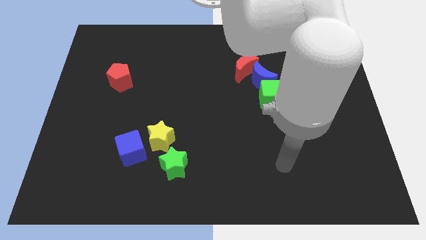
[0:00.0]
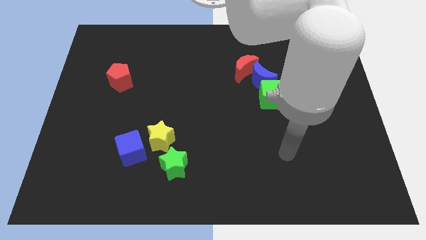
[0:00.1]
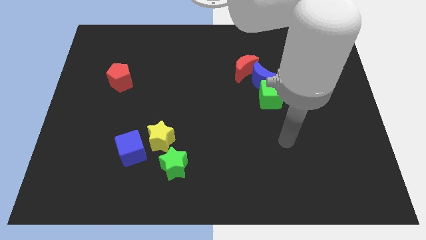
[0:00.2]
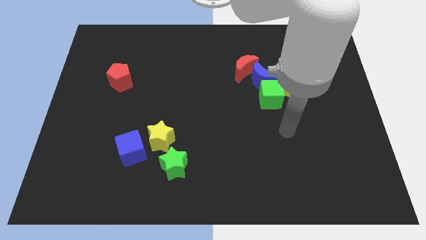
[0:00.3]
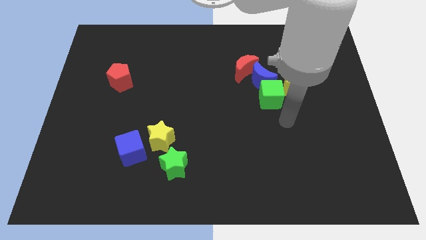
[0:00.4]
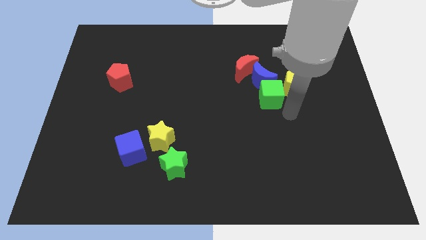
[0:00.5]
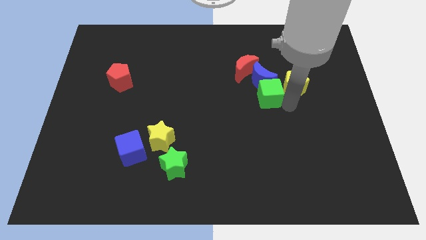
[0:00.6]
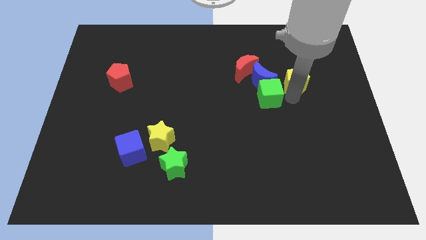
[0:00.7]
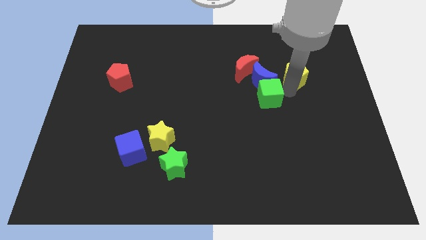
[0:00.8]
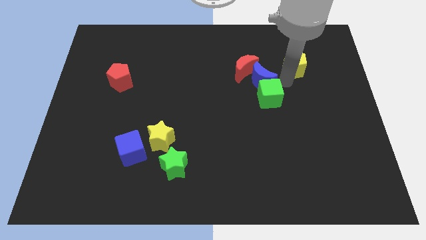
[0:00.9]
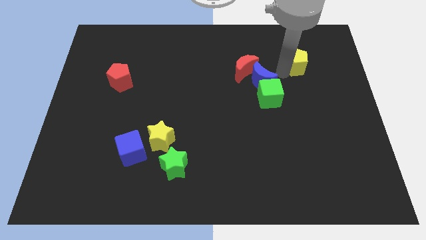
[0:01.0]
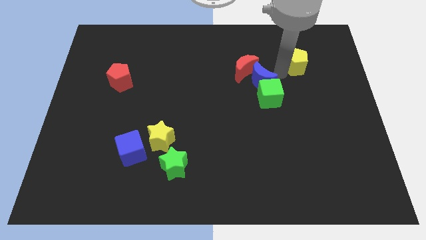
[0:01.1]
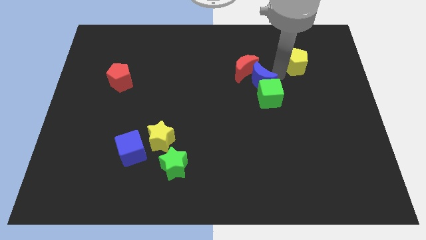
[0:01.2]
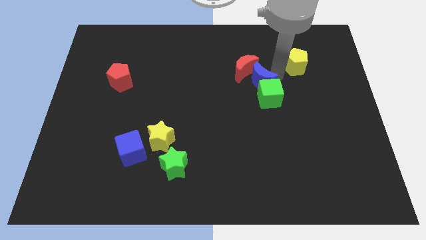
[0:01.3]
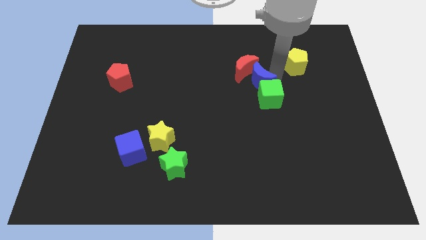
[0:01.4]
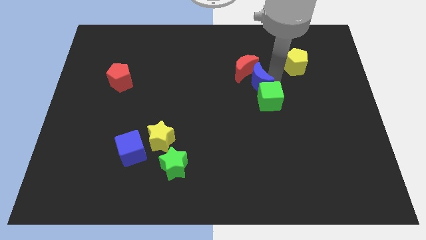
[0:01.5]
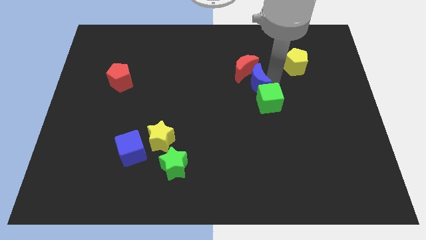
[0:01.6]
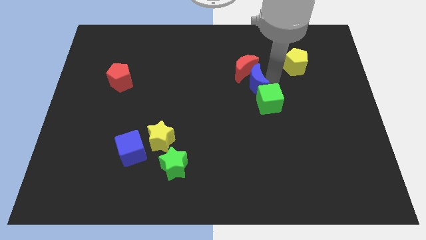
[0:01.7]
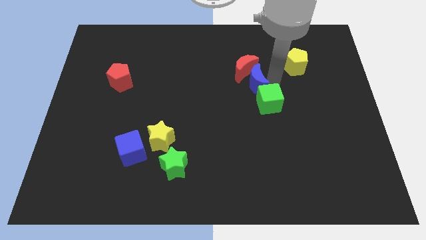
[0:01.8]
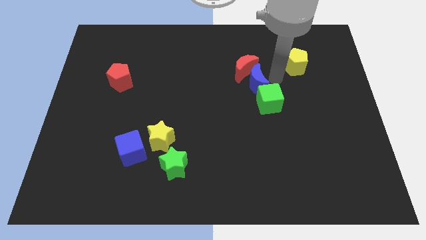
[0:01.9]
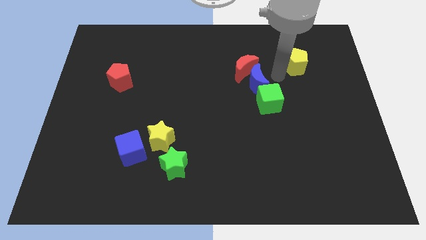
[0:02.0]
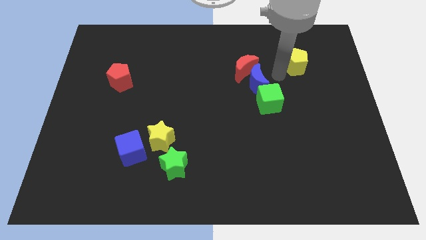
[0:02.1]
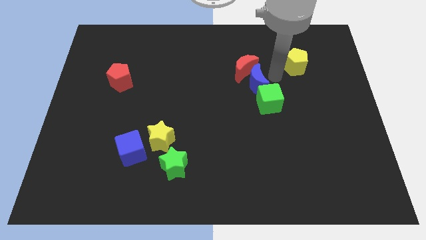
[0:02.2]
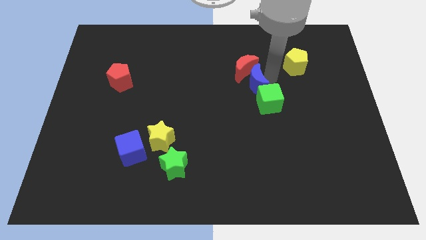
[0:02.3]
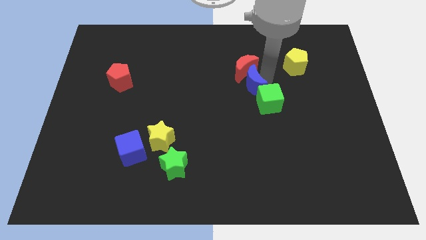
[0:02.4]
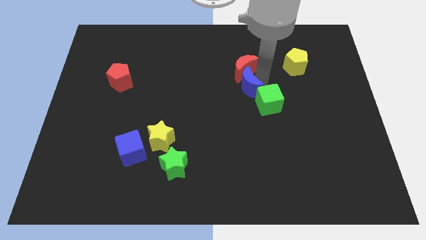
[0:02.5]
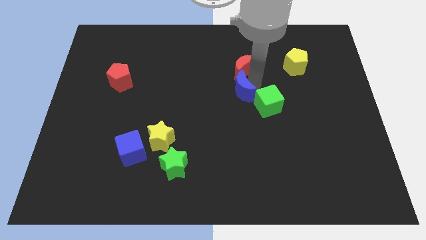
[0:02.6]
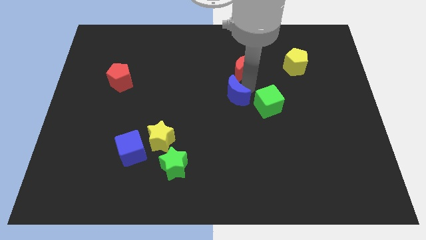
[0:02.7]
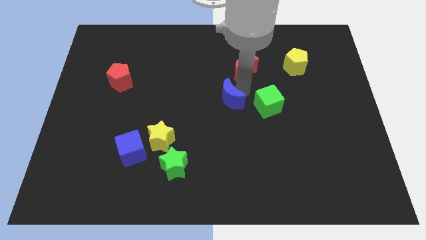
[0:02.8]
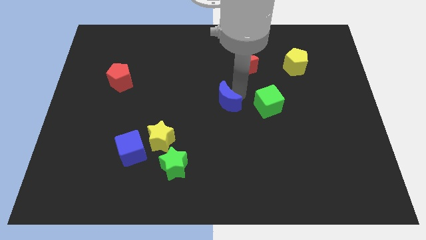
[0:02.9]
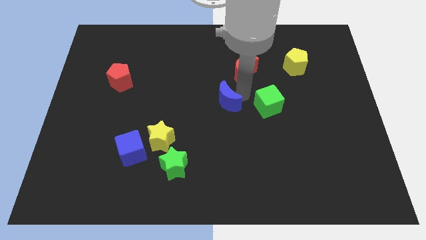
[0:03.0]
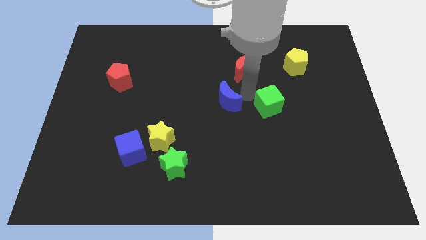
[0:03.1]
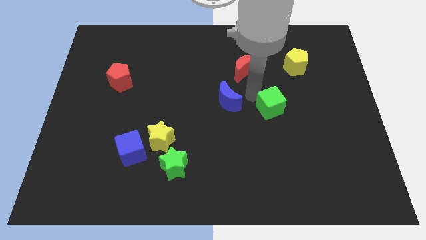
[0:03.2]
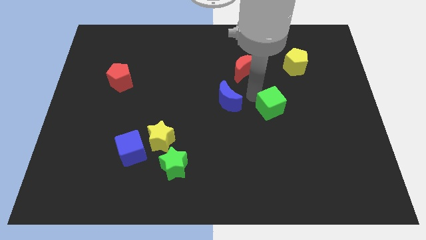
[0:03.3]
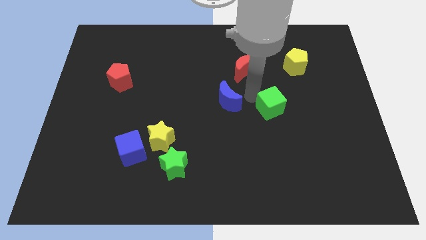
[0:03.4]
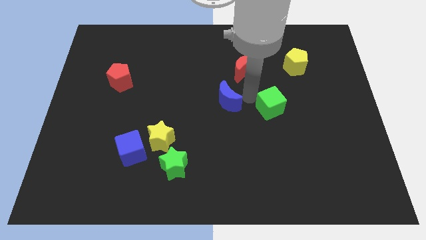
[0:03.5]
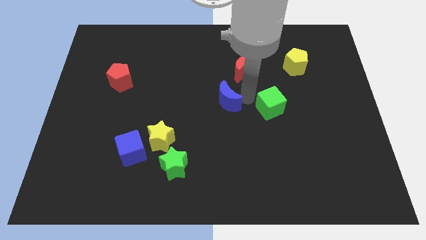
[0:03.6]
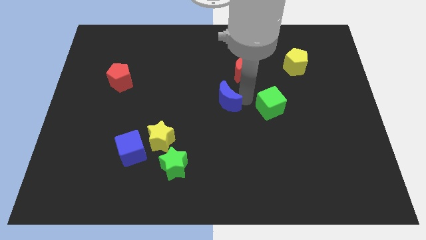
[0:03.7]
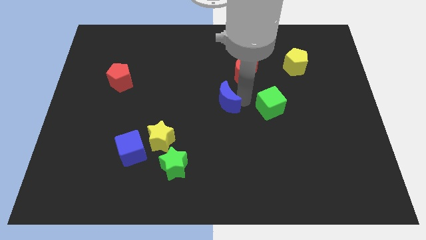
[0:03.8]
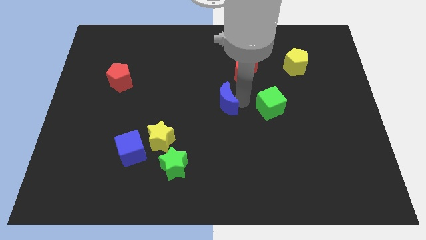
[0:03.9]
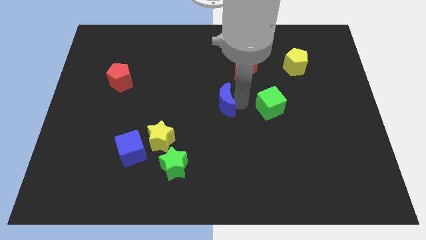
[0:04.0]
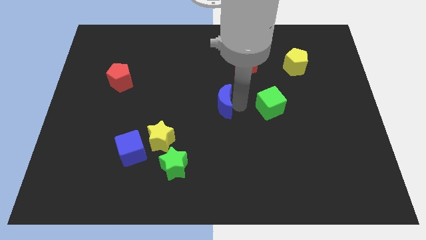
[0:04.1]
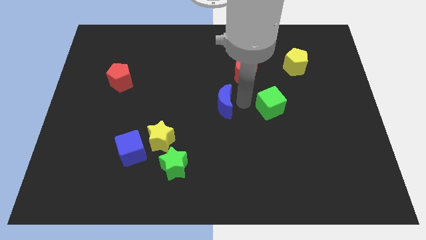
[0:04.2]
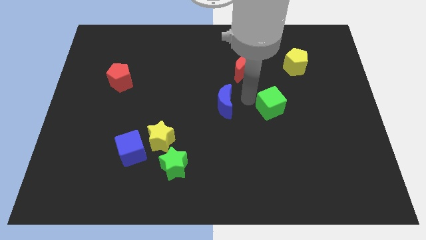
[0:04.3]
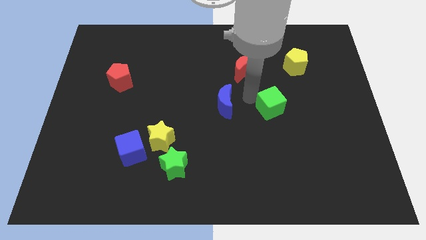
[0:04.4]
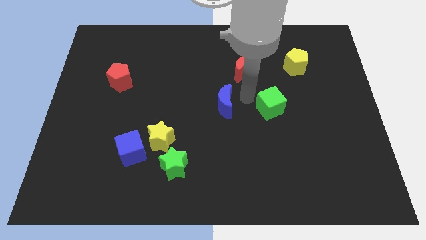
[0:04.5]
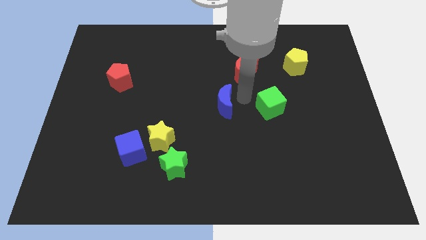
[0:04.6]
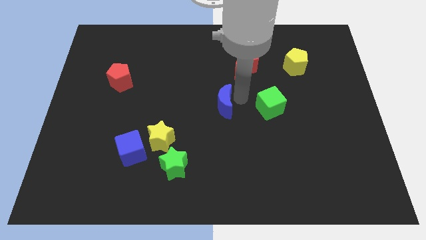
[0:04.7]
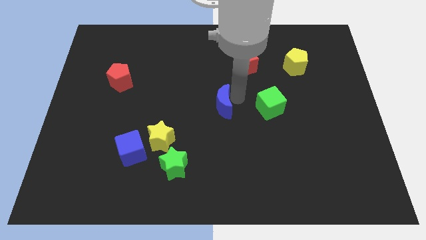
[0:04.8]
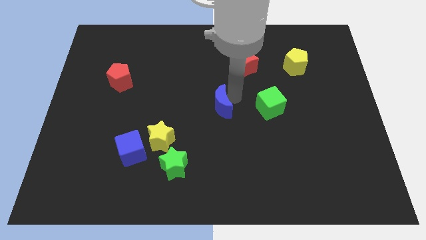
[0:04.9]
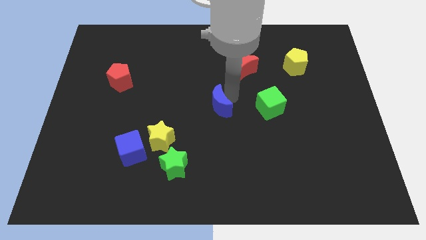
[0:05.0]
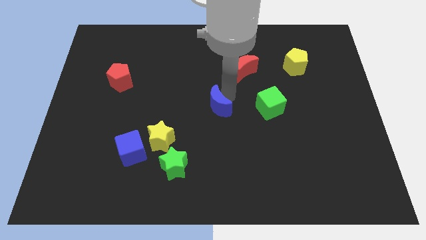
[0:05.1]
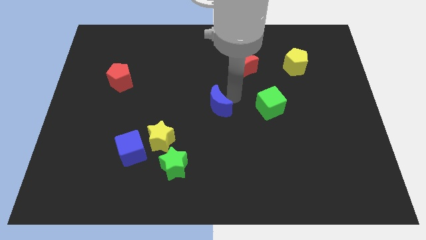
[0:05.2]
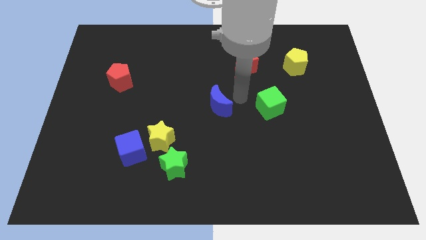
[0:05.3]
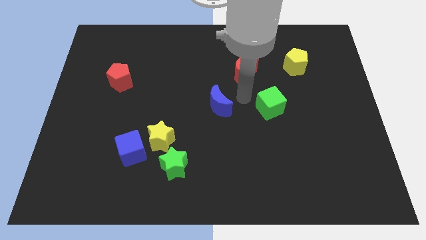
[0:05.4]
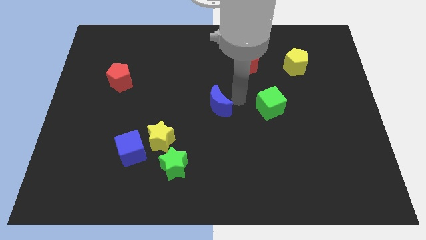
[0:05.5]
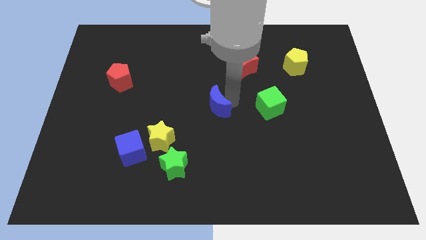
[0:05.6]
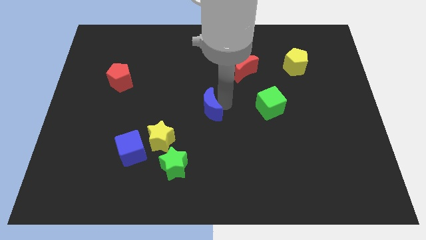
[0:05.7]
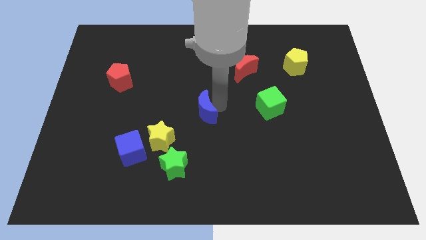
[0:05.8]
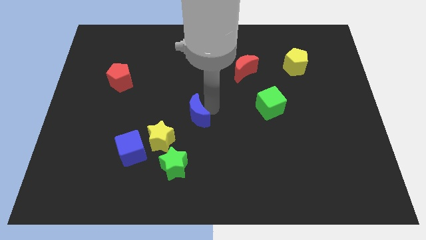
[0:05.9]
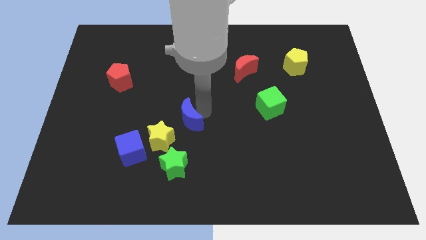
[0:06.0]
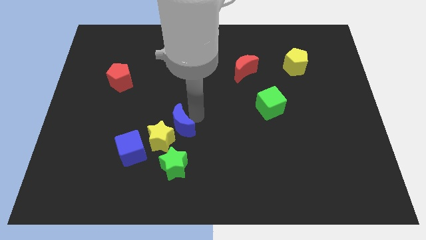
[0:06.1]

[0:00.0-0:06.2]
slide the blue moon to the top right side of the blue cube

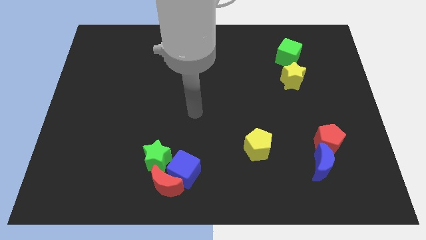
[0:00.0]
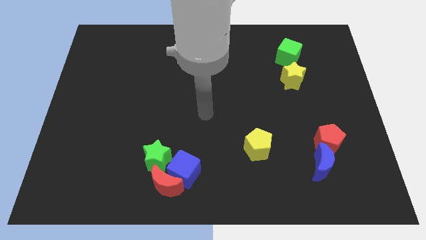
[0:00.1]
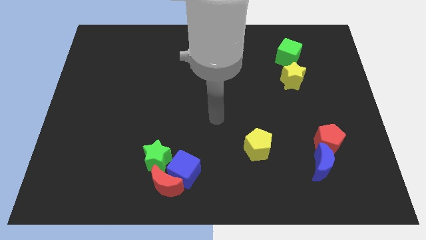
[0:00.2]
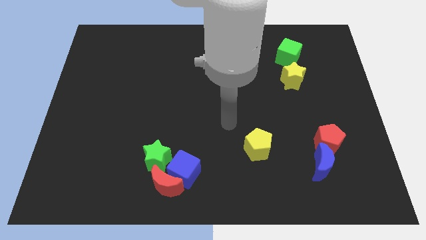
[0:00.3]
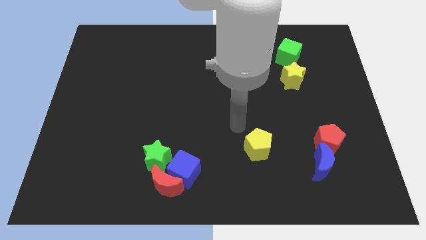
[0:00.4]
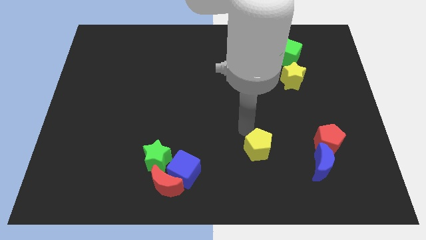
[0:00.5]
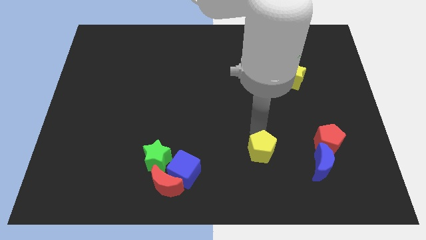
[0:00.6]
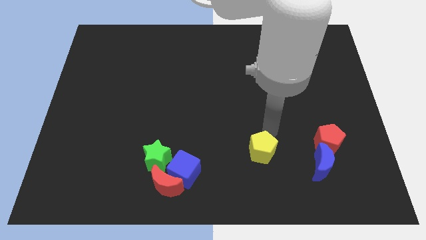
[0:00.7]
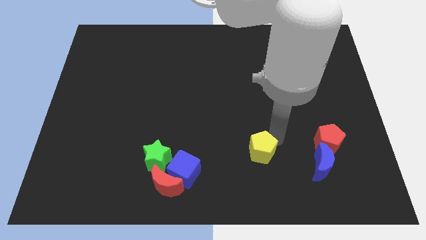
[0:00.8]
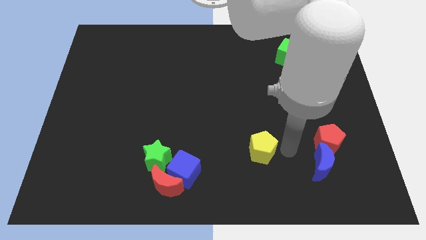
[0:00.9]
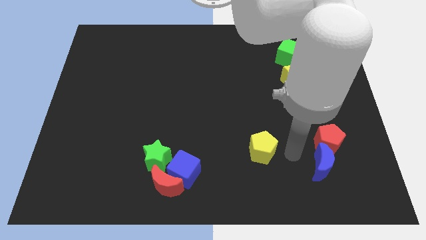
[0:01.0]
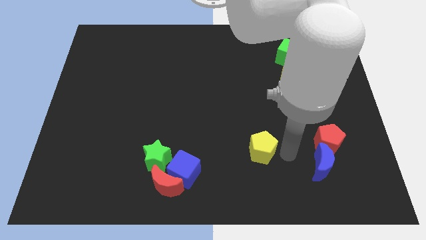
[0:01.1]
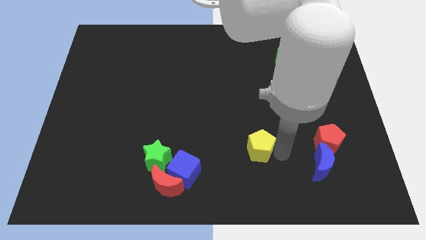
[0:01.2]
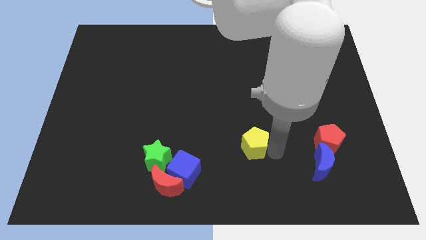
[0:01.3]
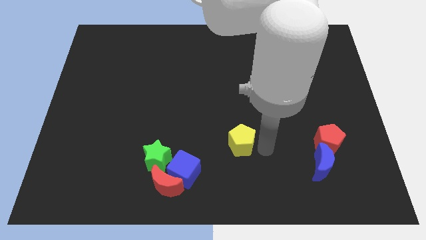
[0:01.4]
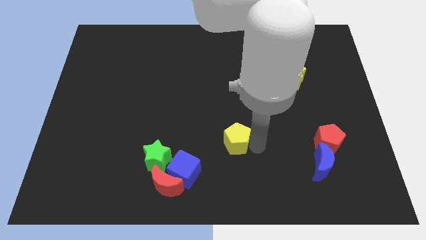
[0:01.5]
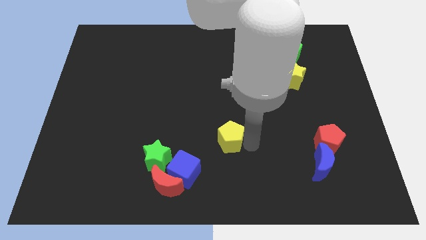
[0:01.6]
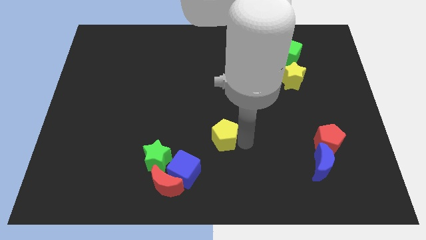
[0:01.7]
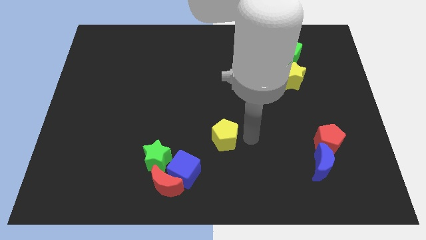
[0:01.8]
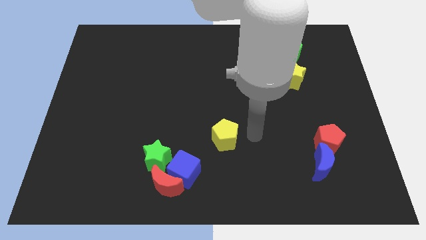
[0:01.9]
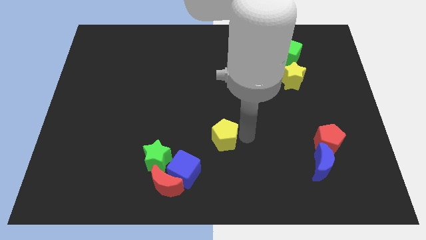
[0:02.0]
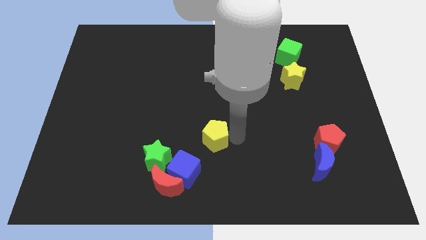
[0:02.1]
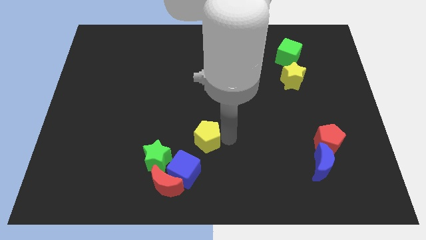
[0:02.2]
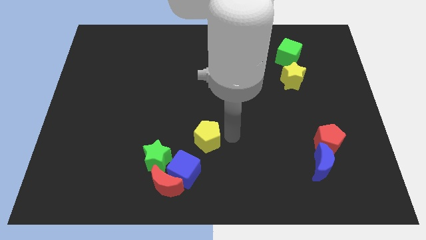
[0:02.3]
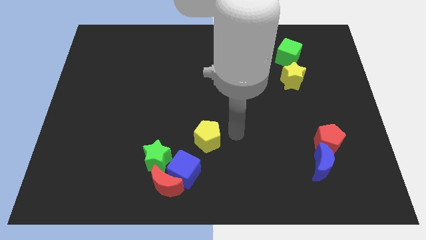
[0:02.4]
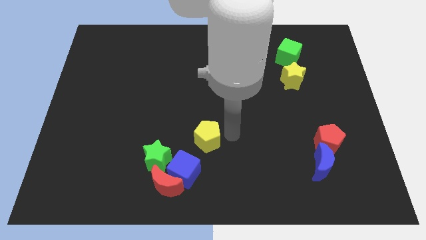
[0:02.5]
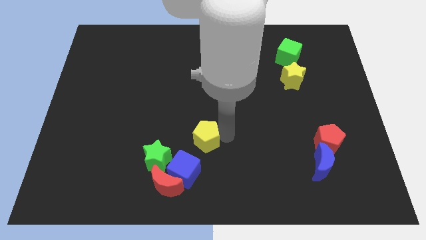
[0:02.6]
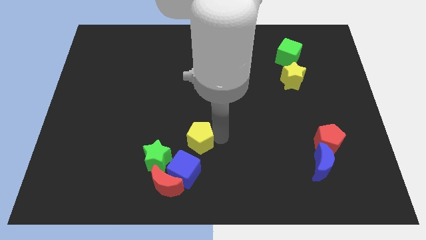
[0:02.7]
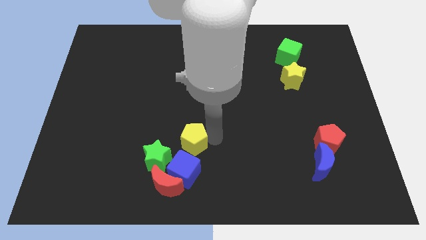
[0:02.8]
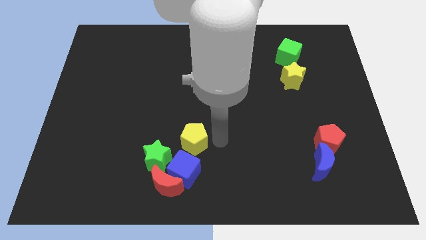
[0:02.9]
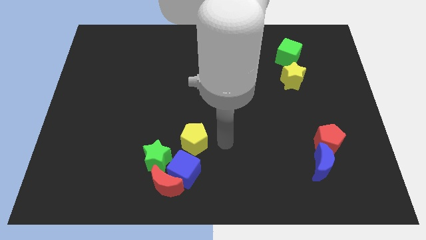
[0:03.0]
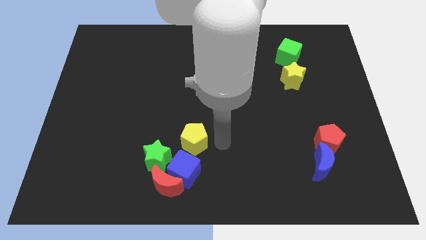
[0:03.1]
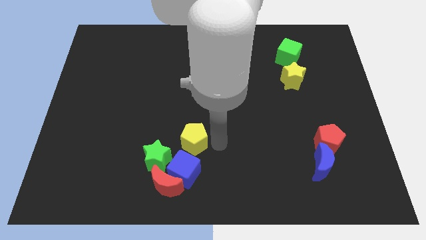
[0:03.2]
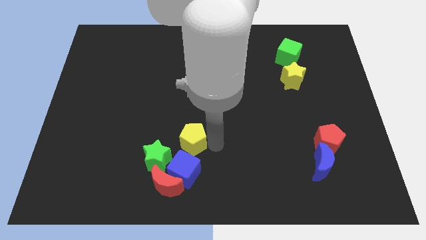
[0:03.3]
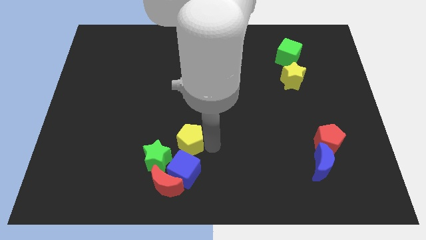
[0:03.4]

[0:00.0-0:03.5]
push the yellow pentagon above the red moon
